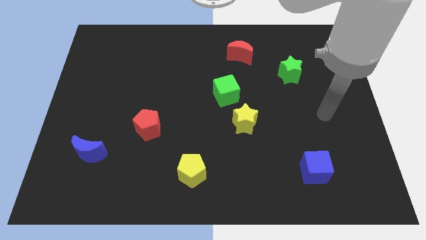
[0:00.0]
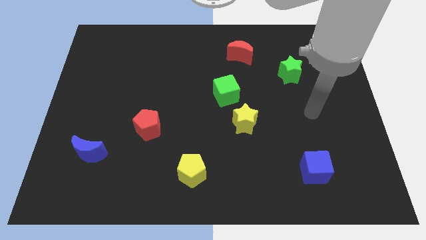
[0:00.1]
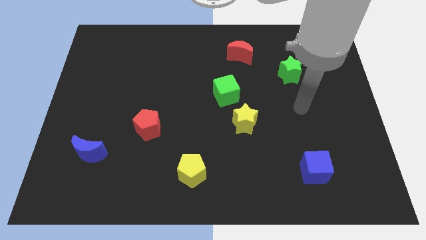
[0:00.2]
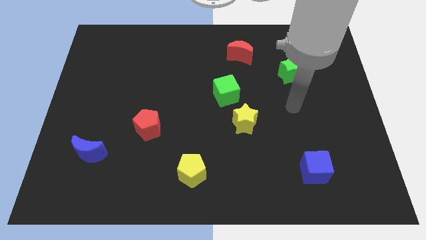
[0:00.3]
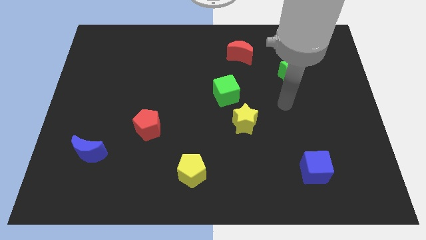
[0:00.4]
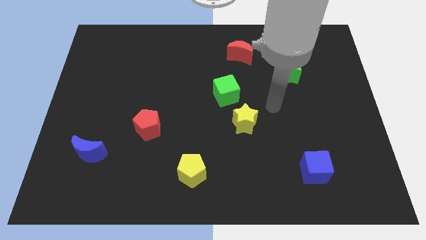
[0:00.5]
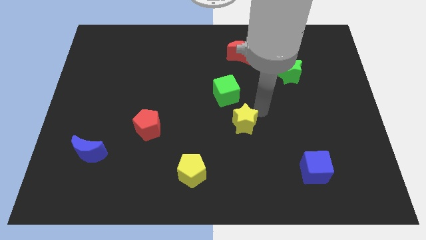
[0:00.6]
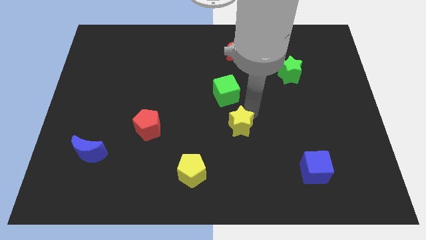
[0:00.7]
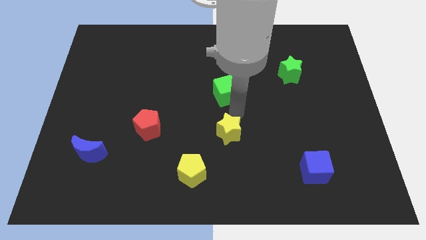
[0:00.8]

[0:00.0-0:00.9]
separate the green cube from the yellow star

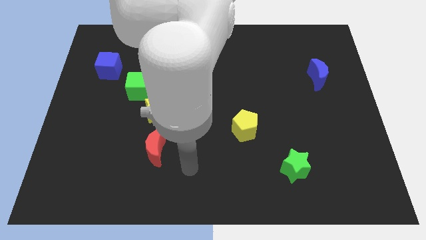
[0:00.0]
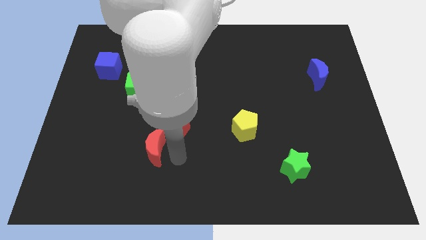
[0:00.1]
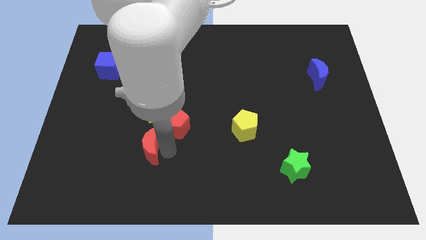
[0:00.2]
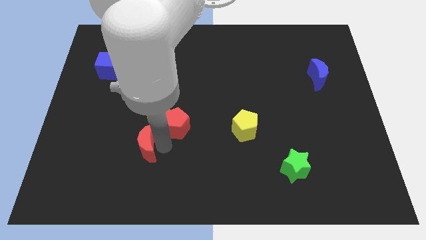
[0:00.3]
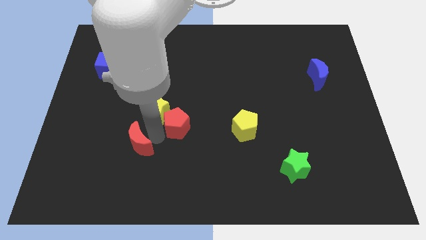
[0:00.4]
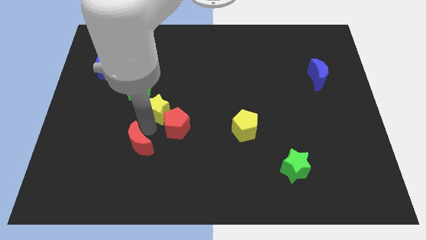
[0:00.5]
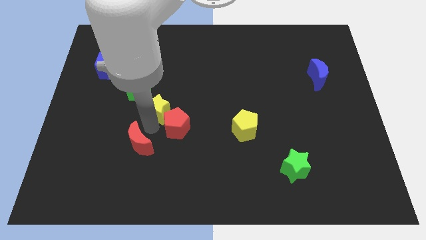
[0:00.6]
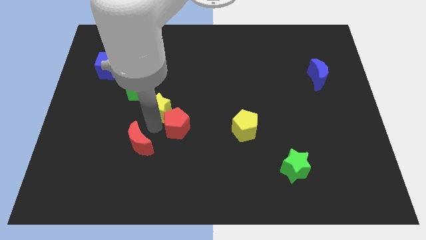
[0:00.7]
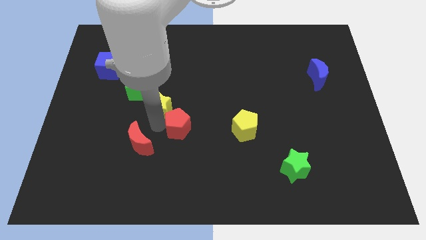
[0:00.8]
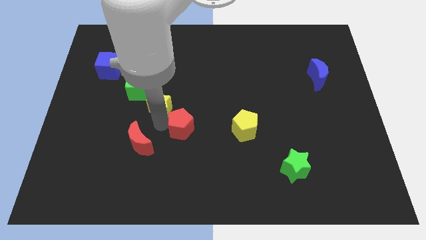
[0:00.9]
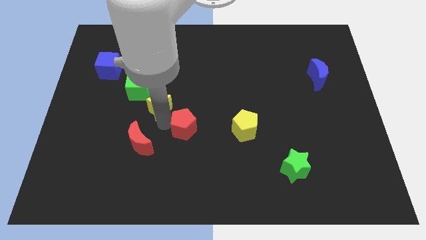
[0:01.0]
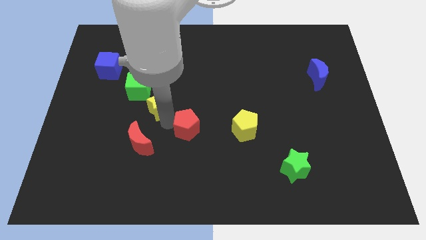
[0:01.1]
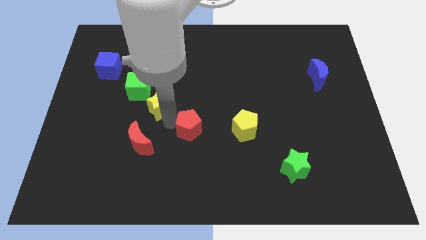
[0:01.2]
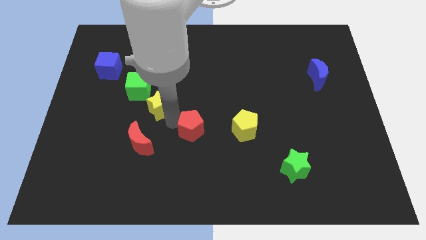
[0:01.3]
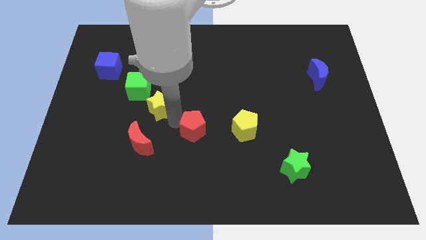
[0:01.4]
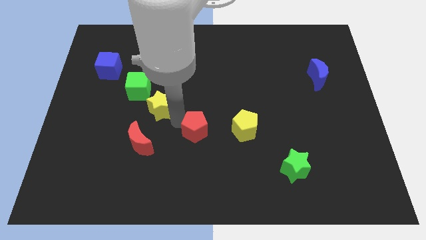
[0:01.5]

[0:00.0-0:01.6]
move the red pentagon away from the yellow star and red moon

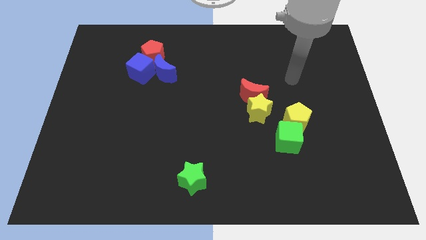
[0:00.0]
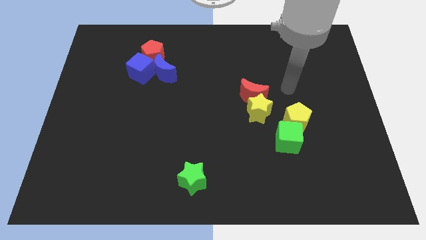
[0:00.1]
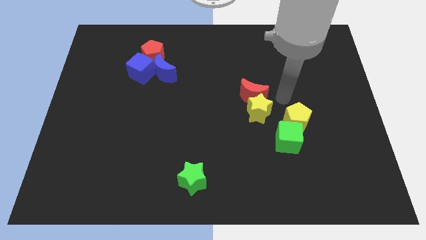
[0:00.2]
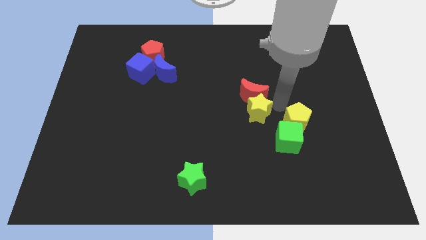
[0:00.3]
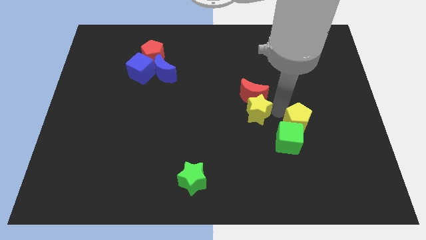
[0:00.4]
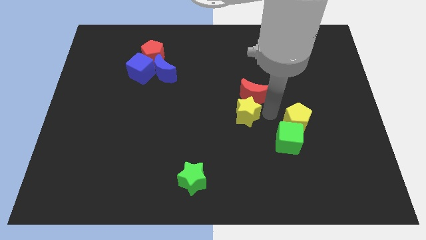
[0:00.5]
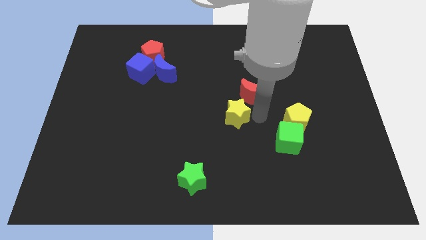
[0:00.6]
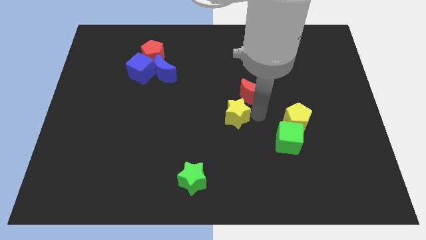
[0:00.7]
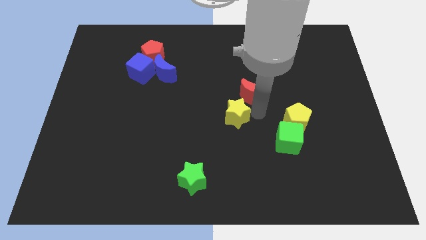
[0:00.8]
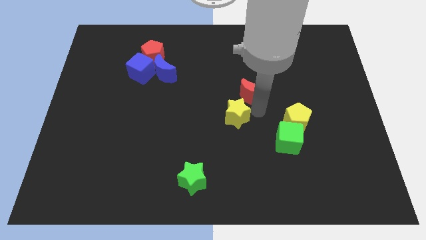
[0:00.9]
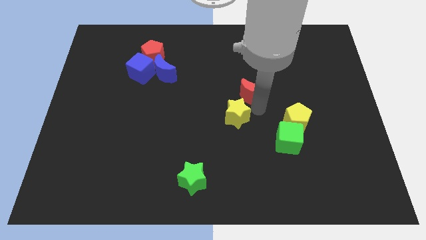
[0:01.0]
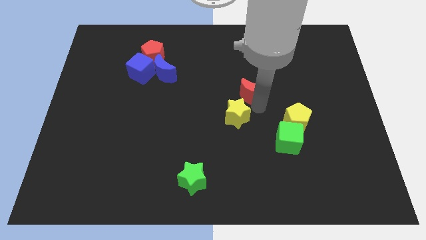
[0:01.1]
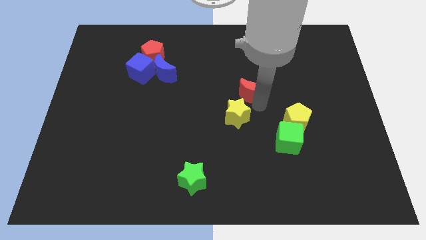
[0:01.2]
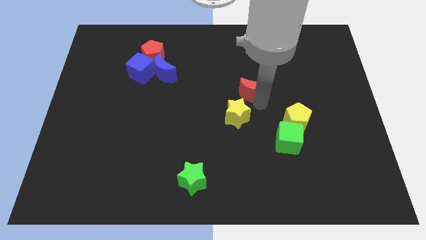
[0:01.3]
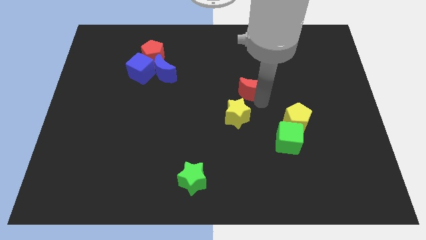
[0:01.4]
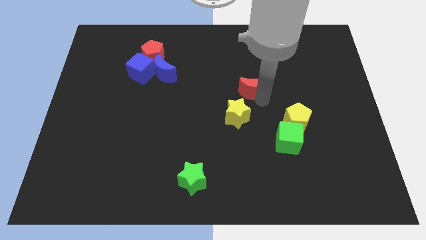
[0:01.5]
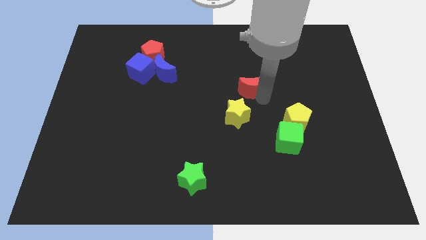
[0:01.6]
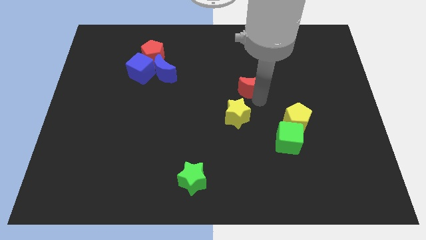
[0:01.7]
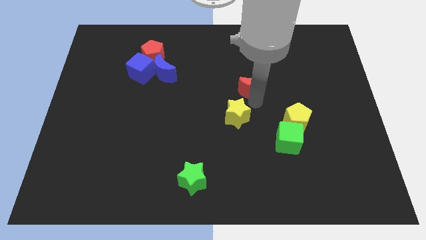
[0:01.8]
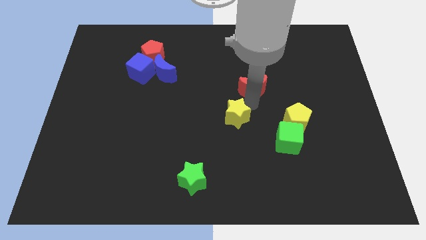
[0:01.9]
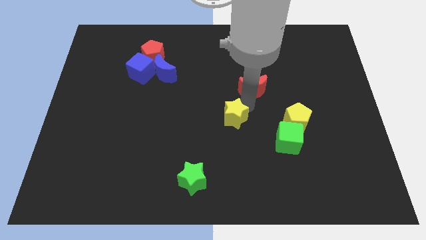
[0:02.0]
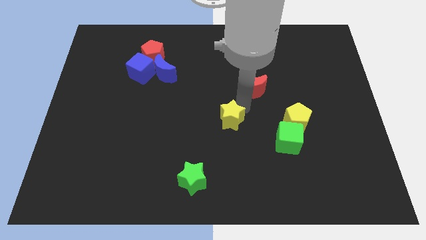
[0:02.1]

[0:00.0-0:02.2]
separate the red moon from the yellow star

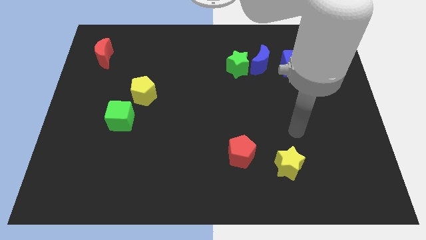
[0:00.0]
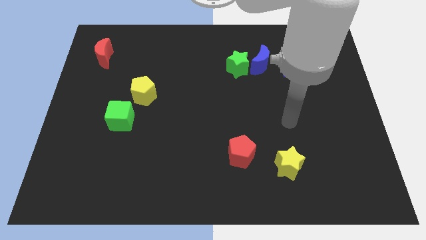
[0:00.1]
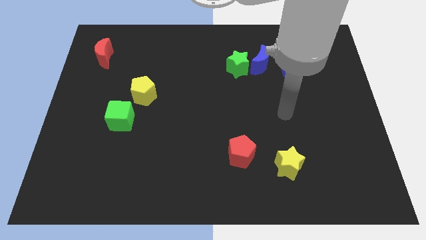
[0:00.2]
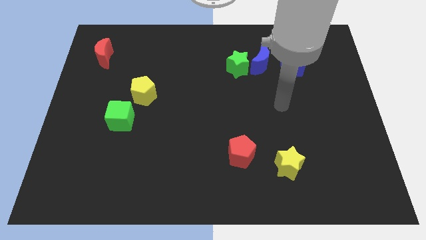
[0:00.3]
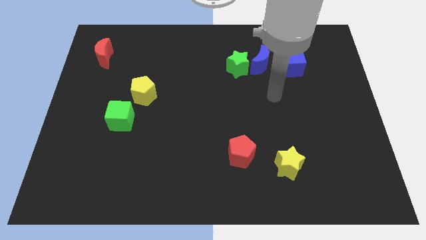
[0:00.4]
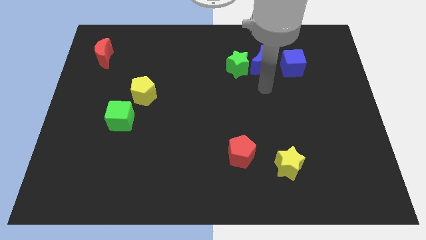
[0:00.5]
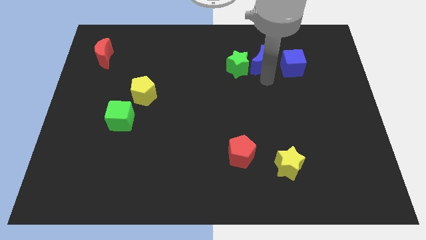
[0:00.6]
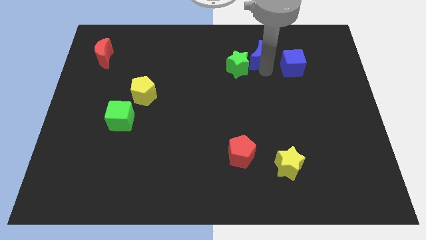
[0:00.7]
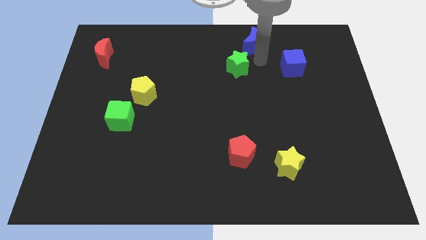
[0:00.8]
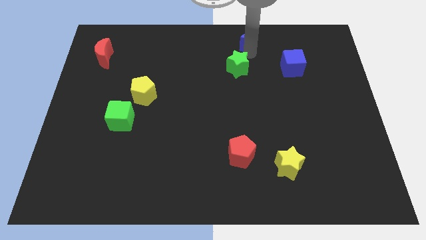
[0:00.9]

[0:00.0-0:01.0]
pull the green star apart from the blue moon

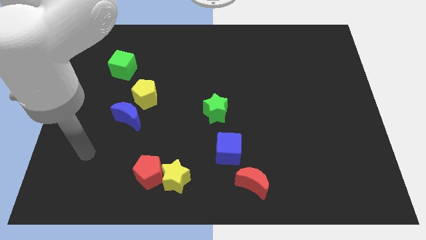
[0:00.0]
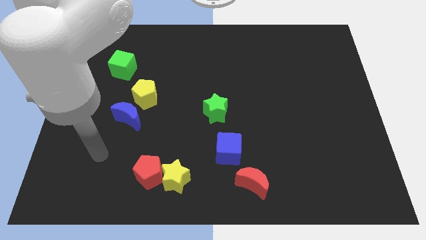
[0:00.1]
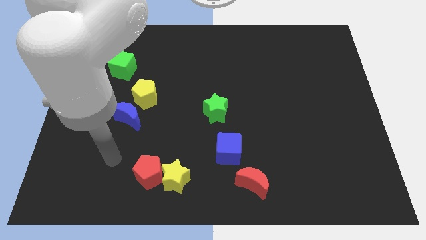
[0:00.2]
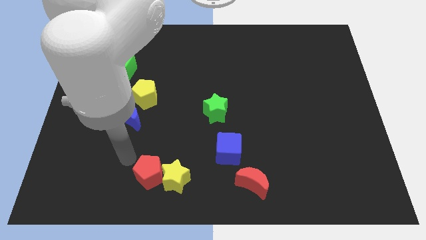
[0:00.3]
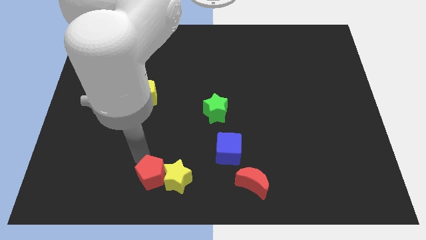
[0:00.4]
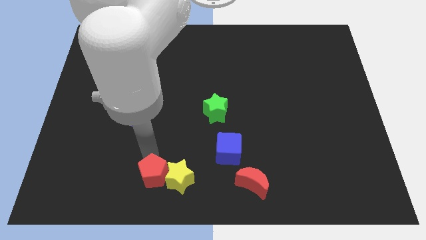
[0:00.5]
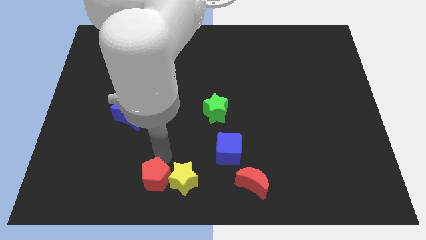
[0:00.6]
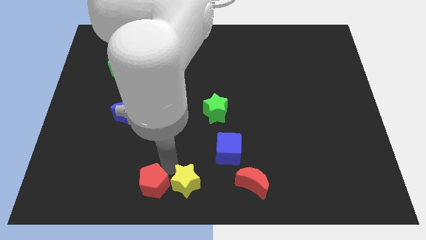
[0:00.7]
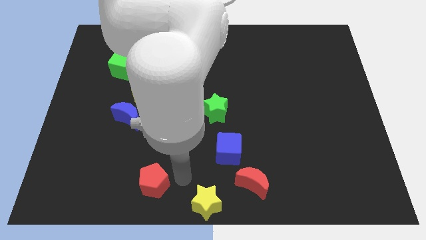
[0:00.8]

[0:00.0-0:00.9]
separate the red pentagon from the yellow star

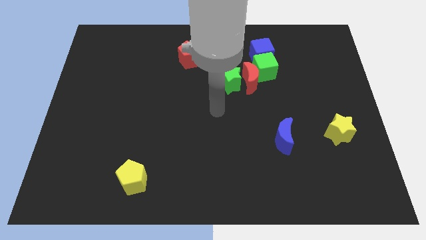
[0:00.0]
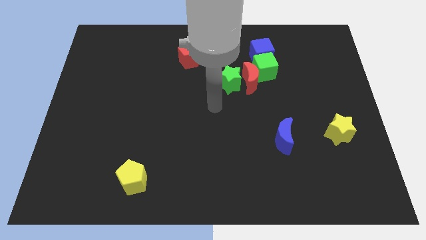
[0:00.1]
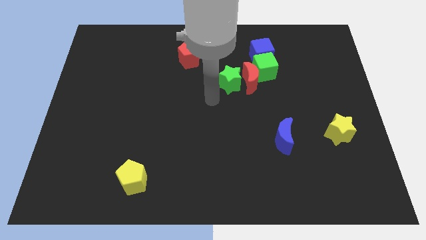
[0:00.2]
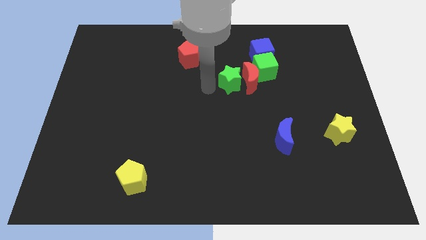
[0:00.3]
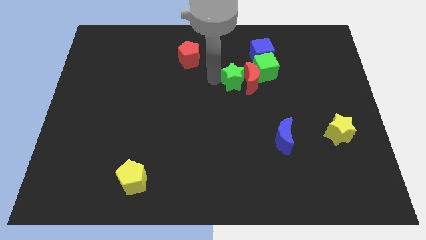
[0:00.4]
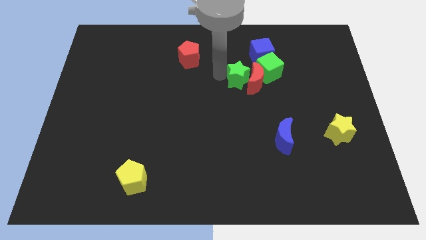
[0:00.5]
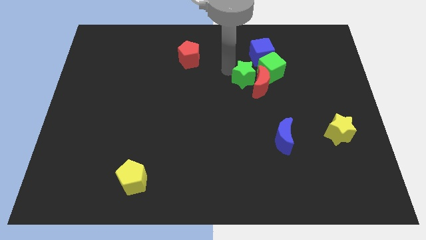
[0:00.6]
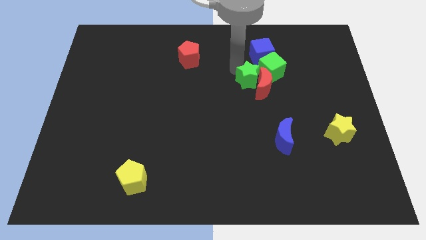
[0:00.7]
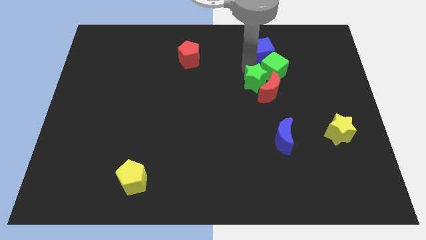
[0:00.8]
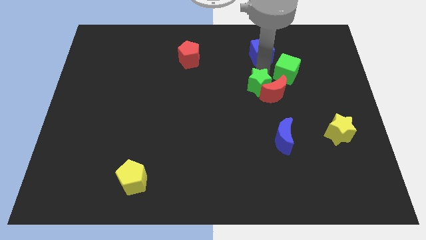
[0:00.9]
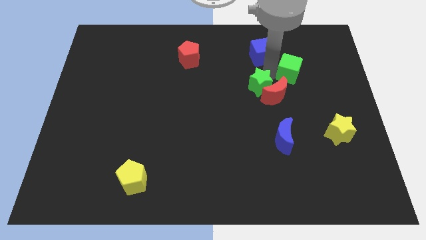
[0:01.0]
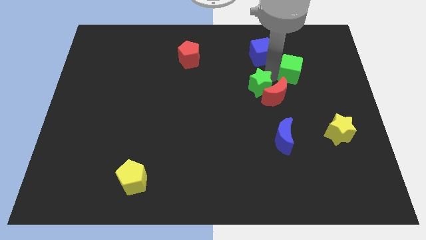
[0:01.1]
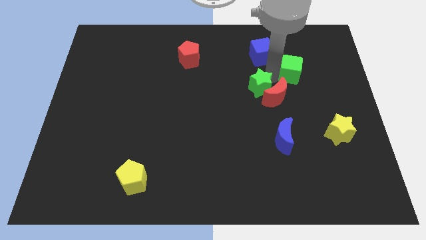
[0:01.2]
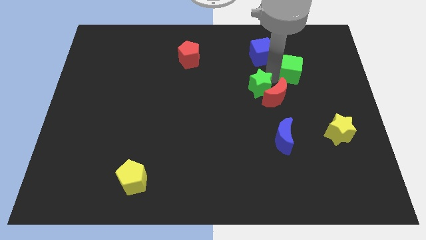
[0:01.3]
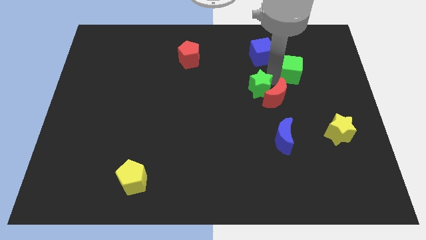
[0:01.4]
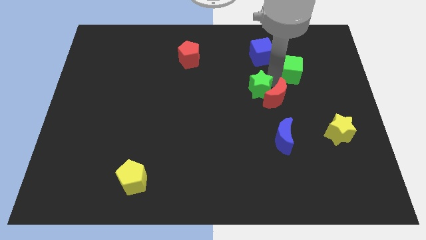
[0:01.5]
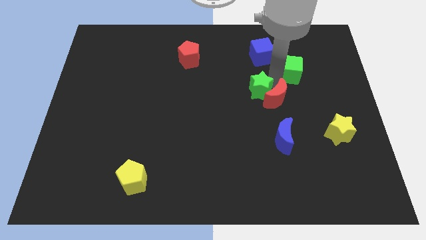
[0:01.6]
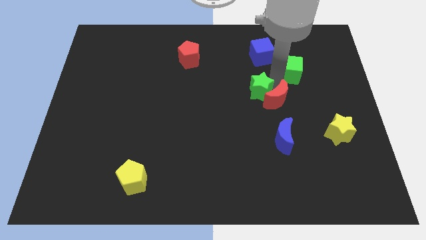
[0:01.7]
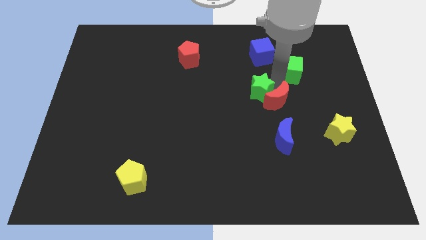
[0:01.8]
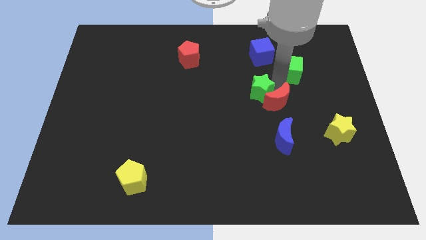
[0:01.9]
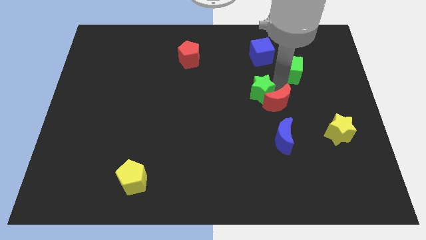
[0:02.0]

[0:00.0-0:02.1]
pull the red moon apart from the green star, green cube, and blue cube

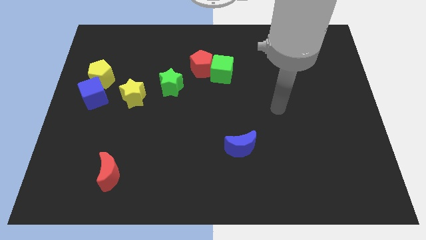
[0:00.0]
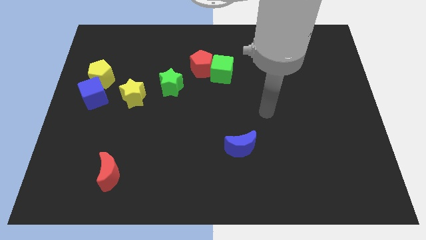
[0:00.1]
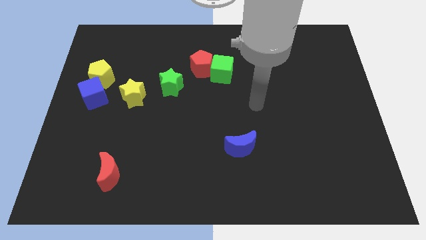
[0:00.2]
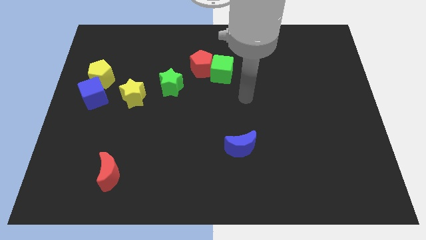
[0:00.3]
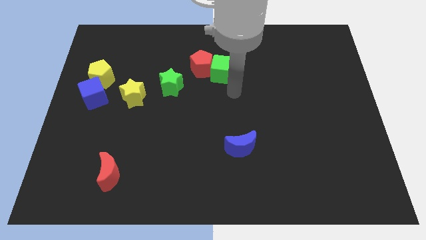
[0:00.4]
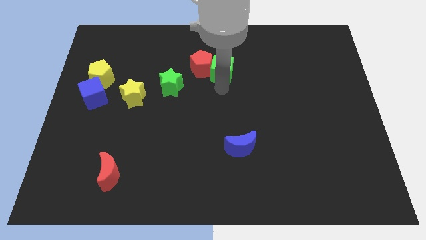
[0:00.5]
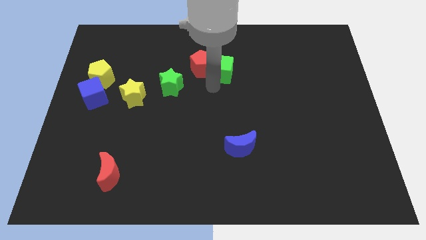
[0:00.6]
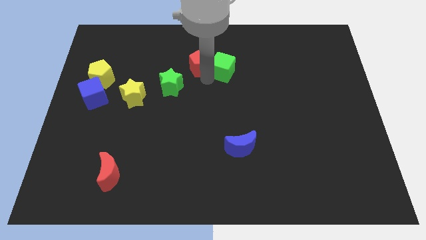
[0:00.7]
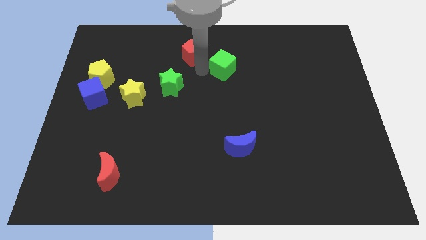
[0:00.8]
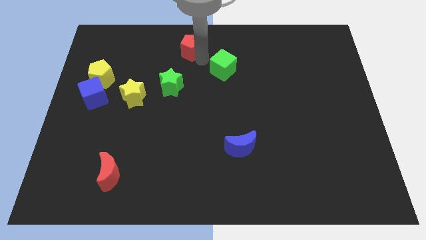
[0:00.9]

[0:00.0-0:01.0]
separate the green cube from the red pentagon
